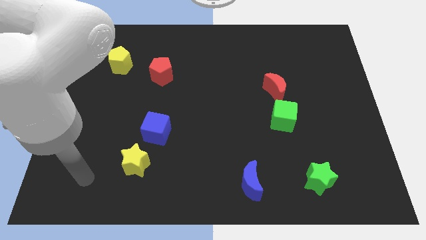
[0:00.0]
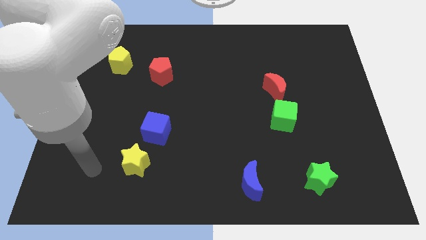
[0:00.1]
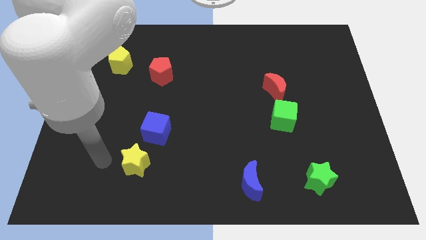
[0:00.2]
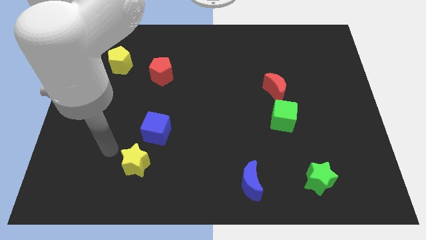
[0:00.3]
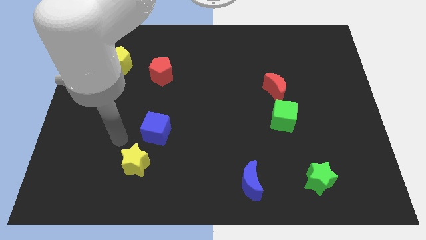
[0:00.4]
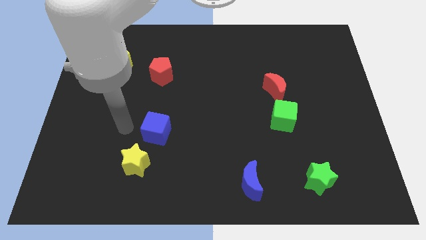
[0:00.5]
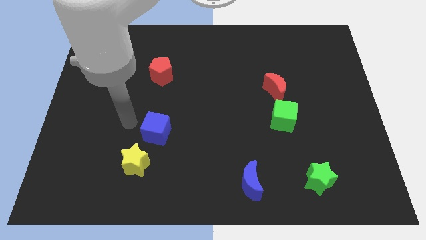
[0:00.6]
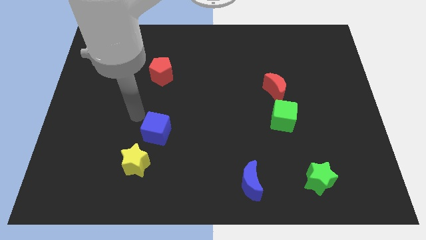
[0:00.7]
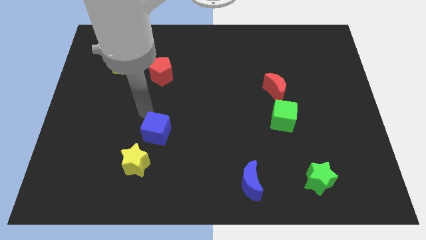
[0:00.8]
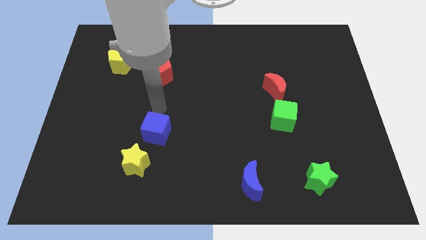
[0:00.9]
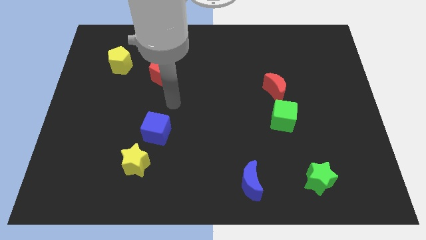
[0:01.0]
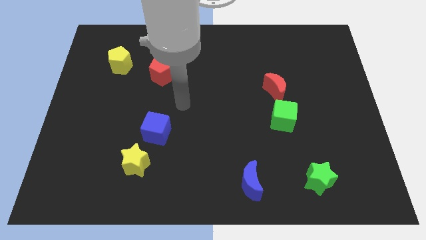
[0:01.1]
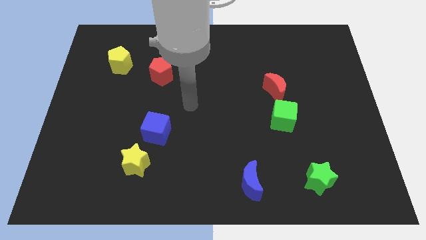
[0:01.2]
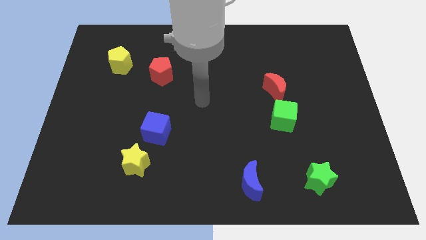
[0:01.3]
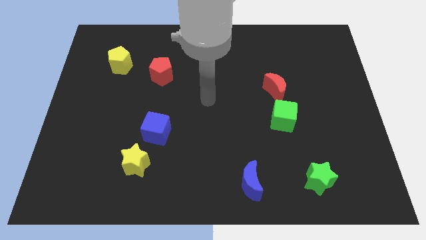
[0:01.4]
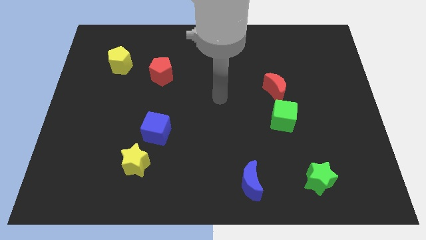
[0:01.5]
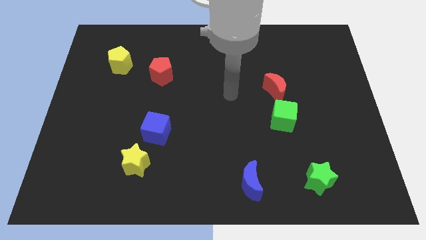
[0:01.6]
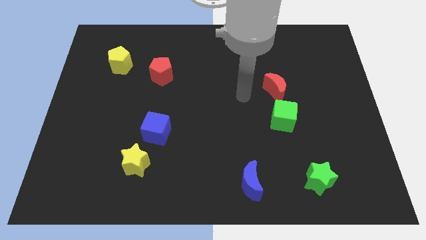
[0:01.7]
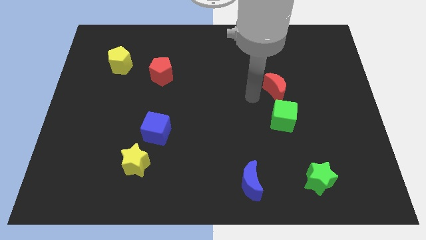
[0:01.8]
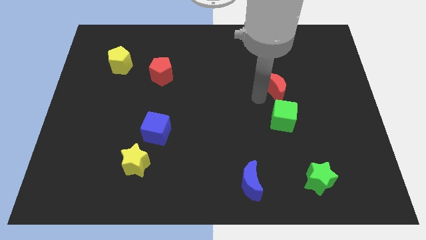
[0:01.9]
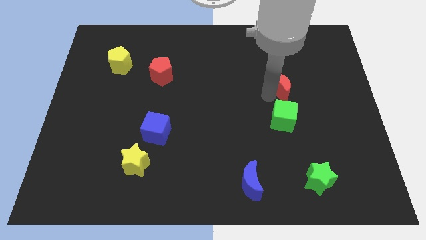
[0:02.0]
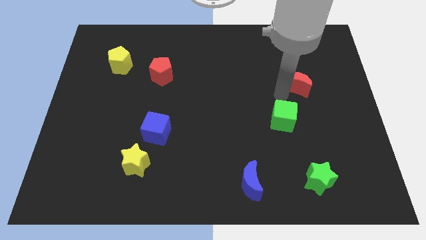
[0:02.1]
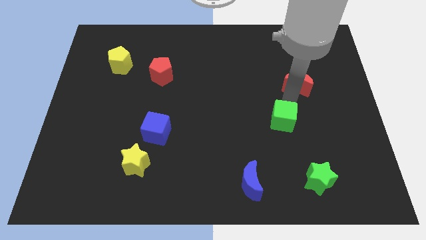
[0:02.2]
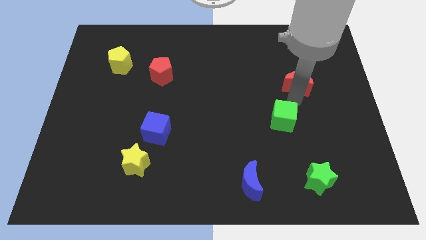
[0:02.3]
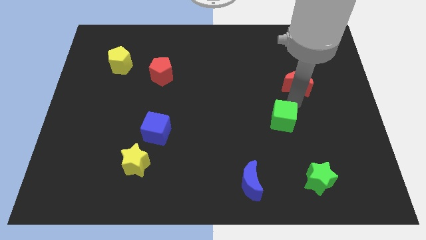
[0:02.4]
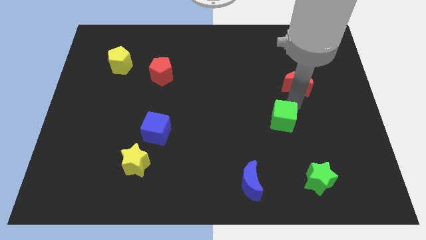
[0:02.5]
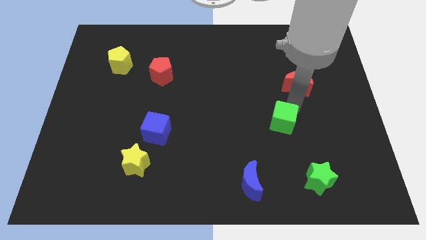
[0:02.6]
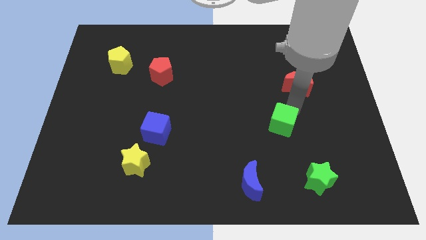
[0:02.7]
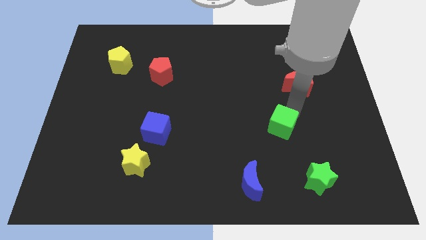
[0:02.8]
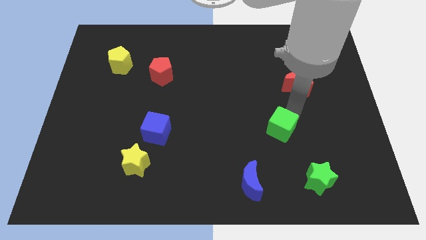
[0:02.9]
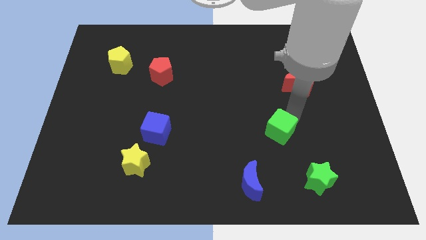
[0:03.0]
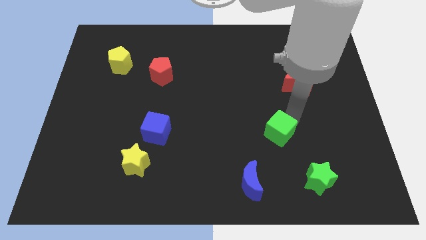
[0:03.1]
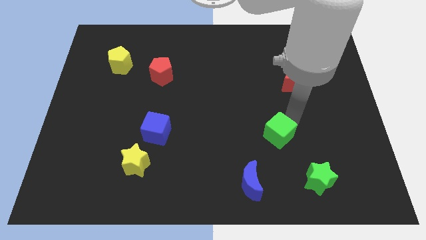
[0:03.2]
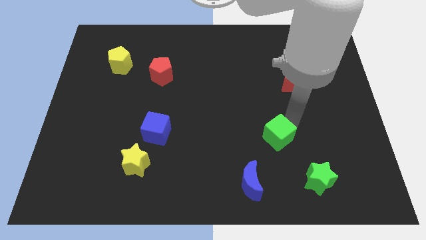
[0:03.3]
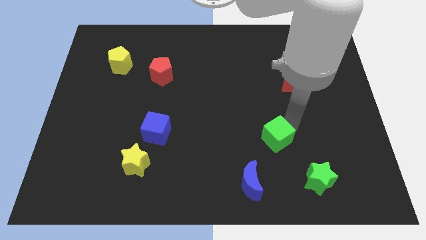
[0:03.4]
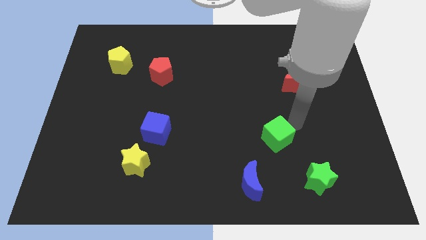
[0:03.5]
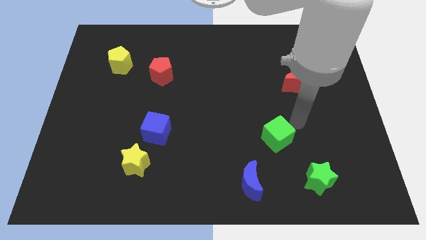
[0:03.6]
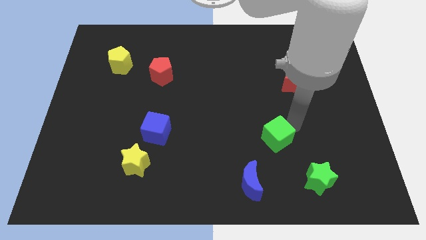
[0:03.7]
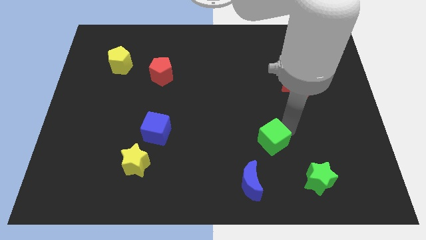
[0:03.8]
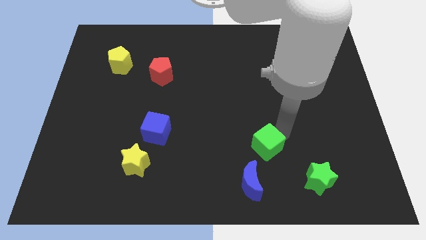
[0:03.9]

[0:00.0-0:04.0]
push the green cube downwards and left diagonally slightly

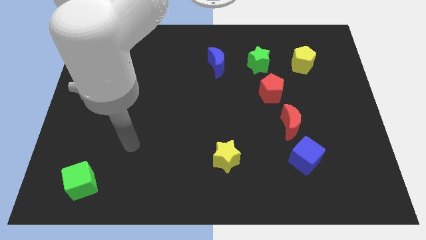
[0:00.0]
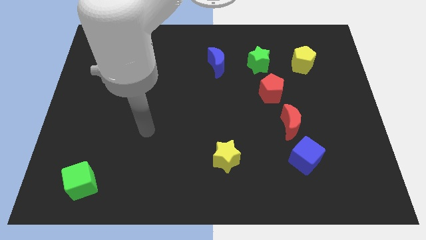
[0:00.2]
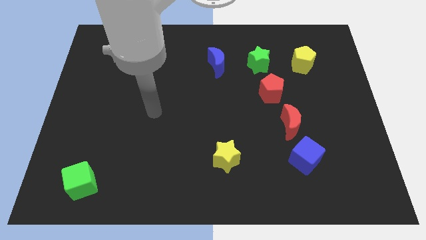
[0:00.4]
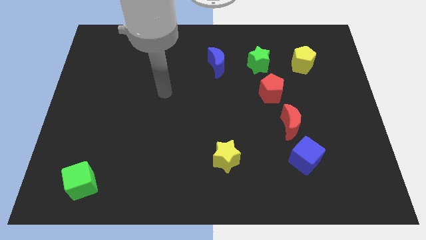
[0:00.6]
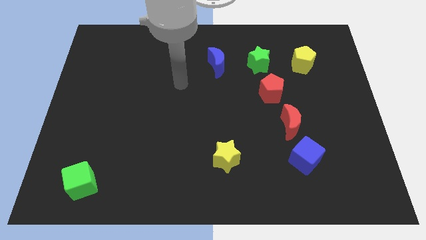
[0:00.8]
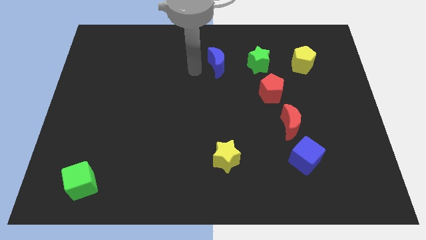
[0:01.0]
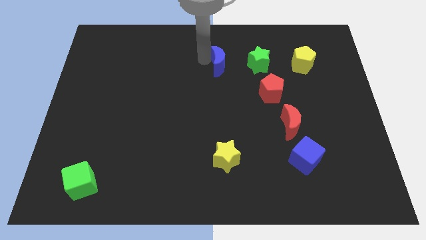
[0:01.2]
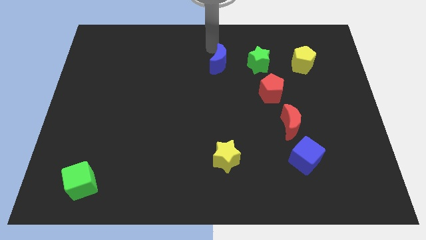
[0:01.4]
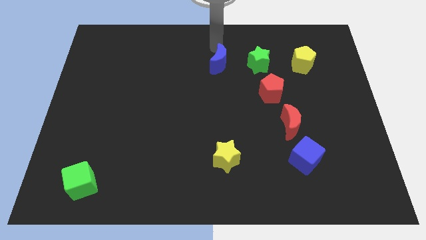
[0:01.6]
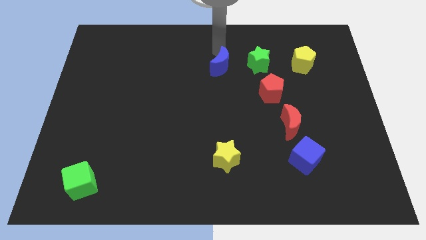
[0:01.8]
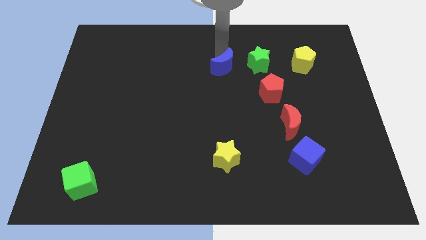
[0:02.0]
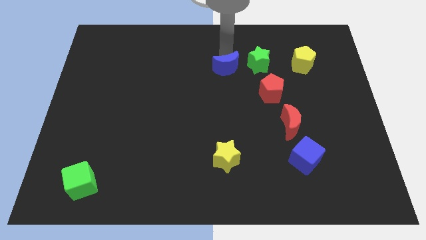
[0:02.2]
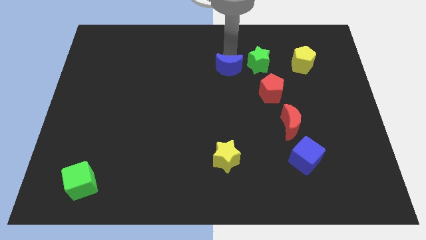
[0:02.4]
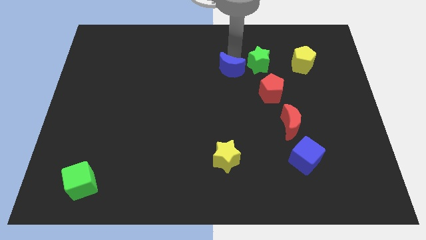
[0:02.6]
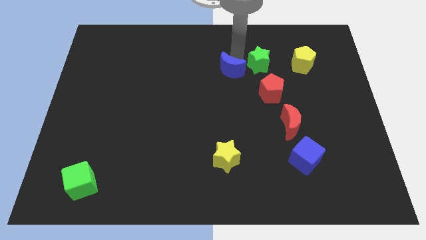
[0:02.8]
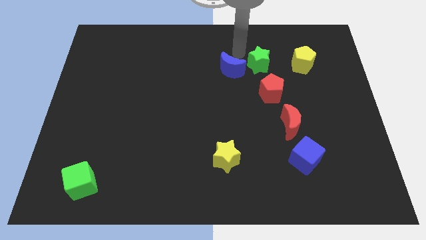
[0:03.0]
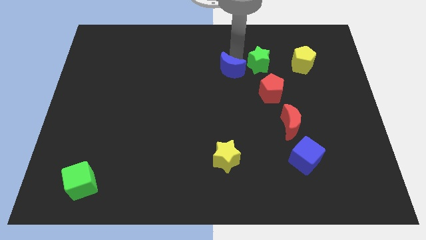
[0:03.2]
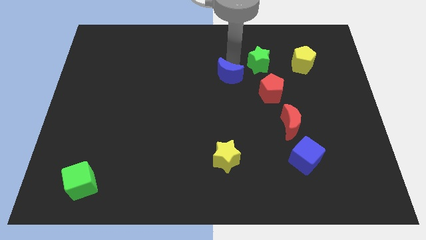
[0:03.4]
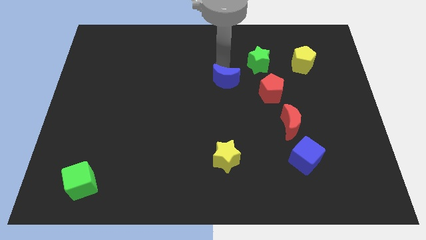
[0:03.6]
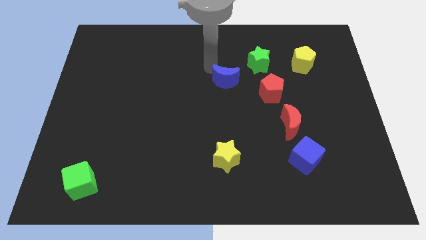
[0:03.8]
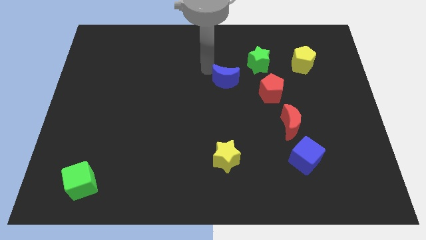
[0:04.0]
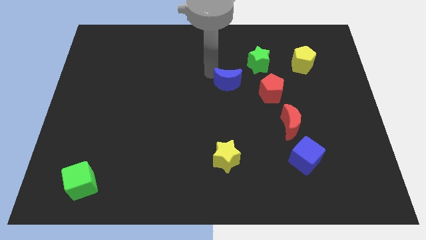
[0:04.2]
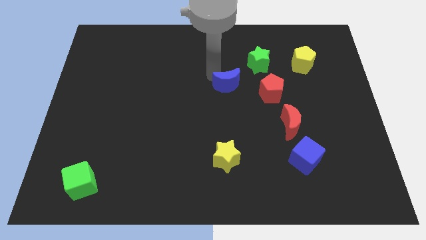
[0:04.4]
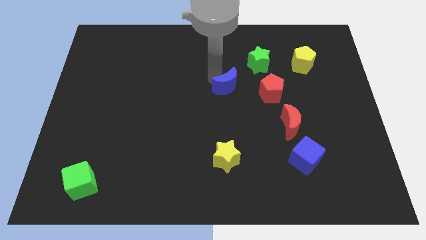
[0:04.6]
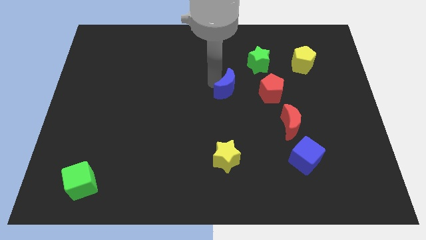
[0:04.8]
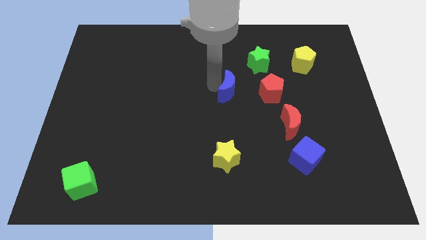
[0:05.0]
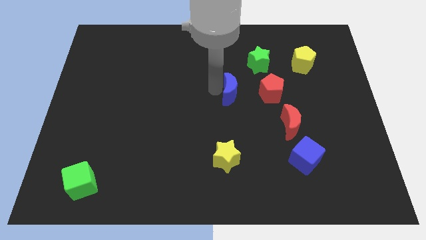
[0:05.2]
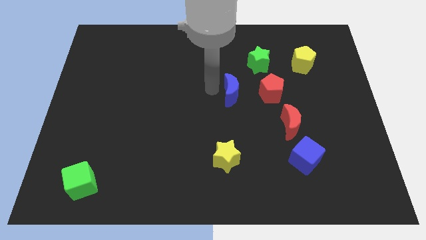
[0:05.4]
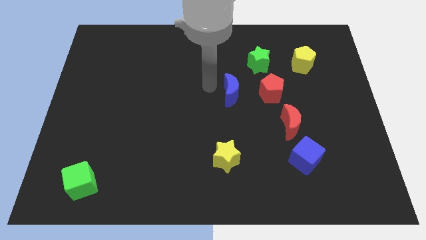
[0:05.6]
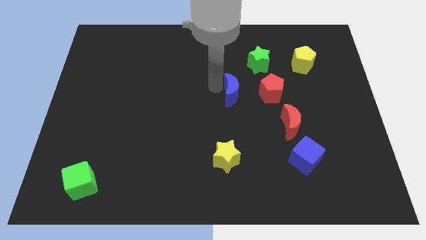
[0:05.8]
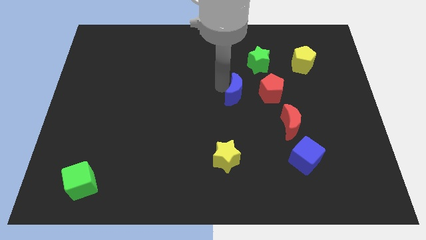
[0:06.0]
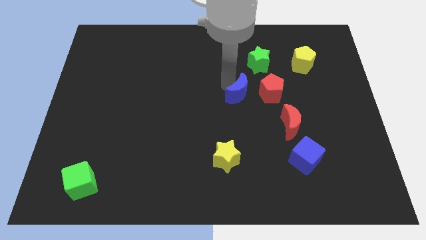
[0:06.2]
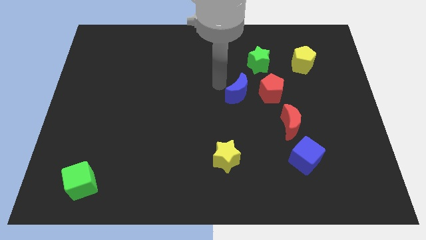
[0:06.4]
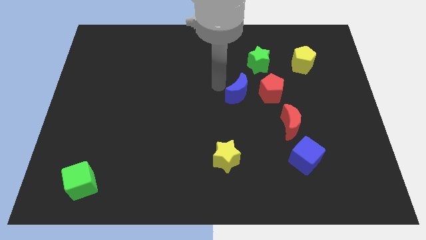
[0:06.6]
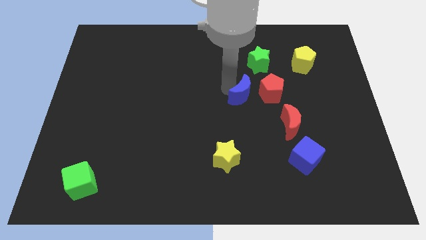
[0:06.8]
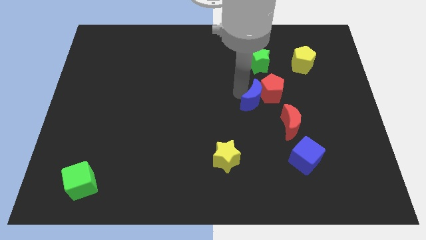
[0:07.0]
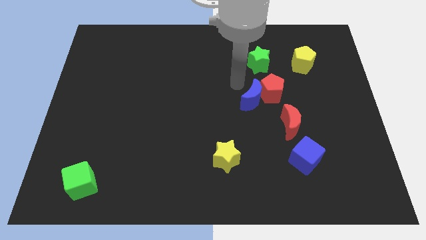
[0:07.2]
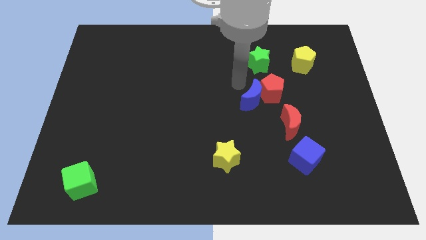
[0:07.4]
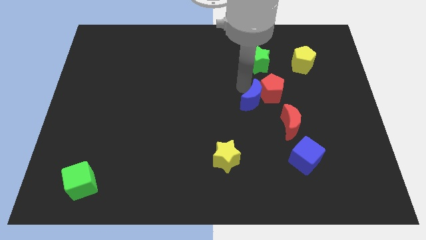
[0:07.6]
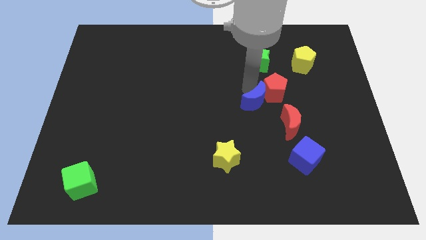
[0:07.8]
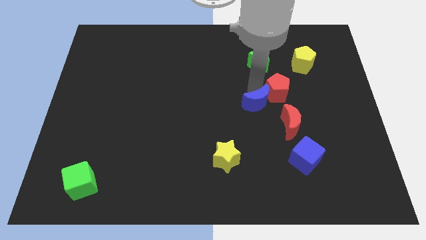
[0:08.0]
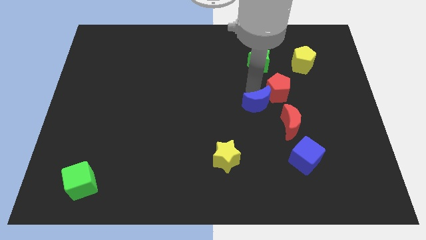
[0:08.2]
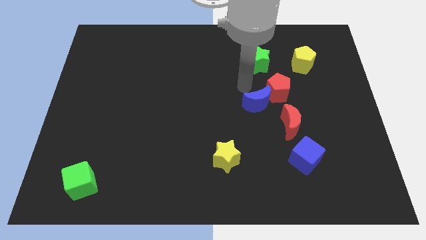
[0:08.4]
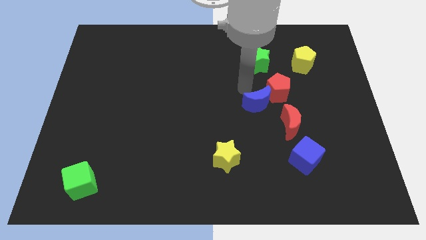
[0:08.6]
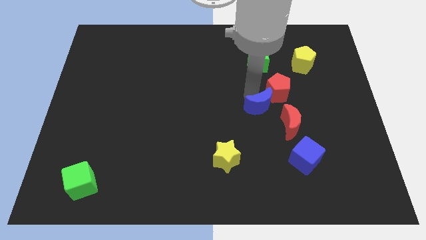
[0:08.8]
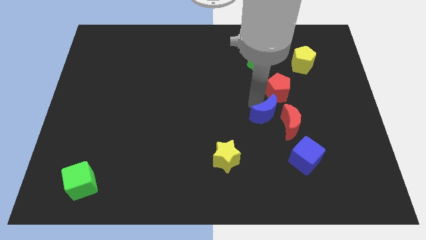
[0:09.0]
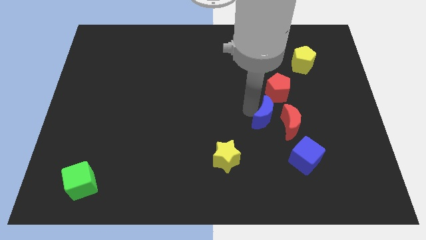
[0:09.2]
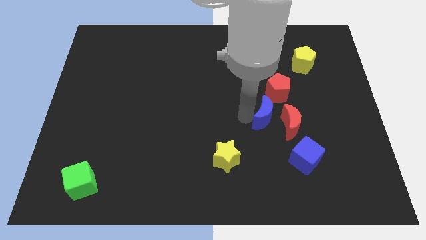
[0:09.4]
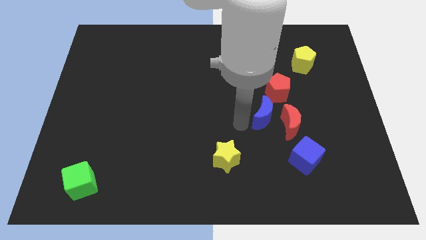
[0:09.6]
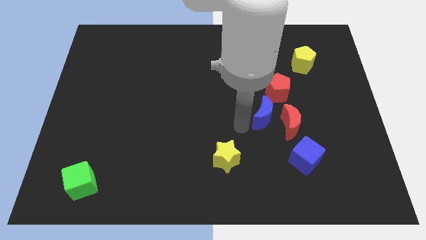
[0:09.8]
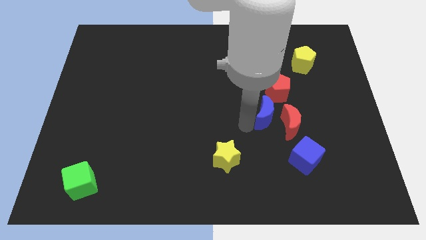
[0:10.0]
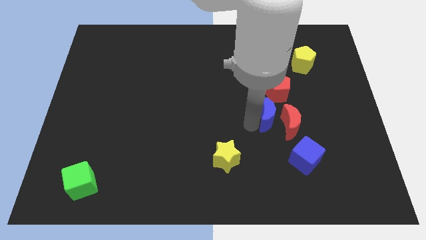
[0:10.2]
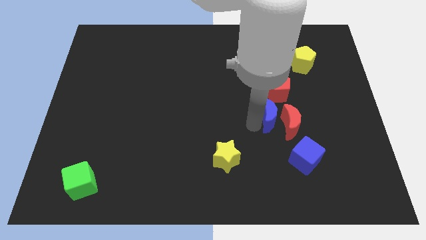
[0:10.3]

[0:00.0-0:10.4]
push the blue moon downwards and then to the right
